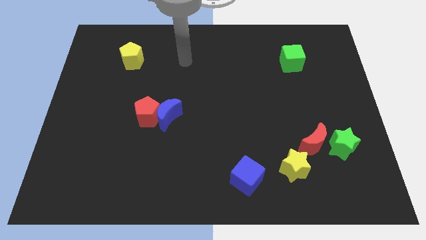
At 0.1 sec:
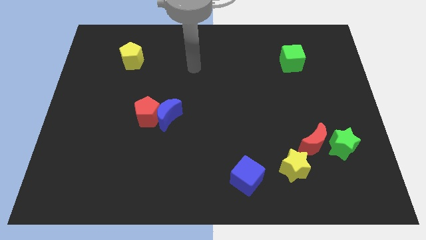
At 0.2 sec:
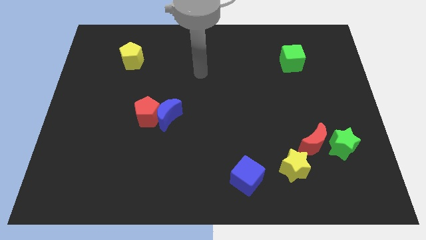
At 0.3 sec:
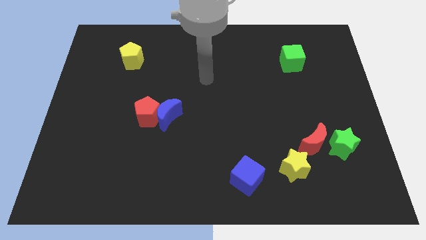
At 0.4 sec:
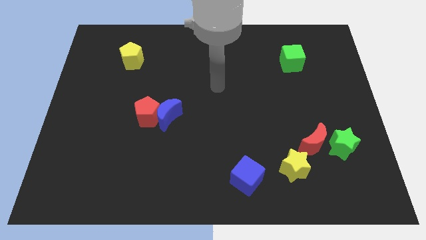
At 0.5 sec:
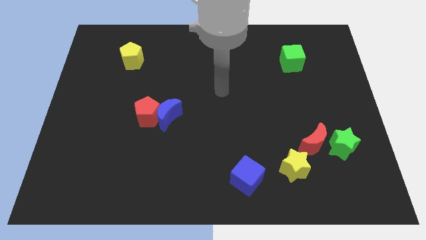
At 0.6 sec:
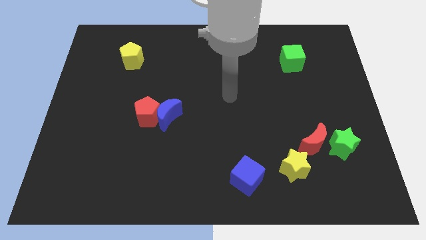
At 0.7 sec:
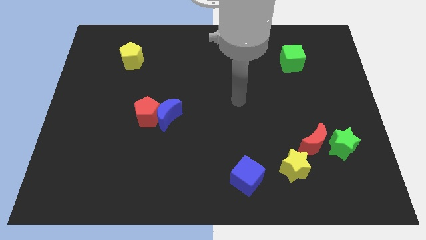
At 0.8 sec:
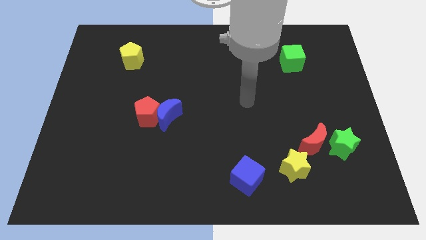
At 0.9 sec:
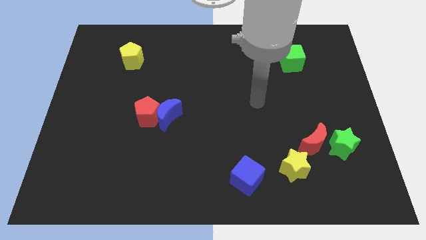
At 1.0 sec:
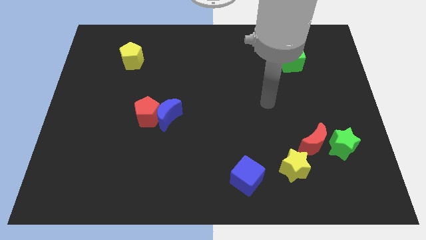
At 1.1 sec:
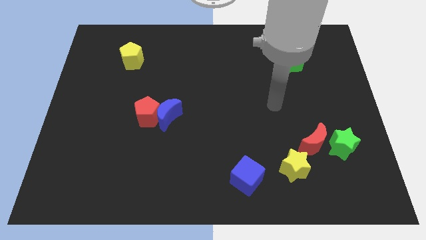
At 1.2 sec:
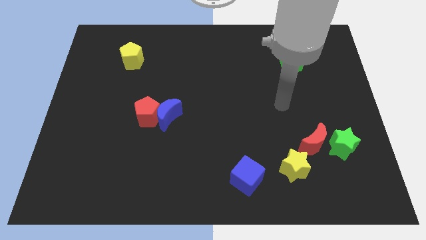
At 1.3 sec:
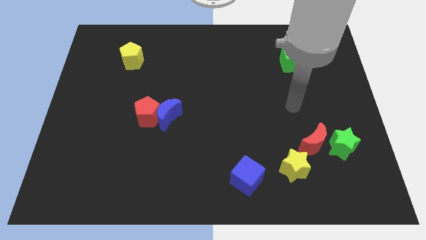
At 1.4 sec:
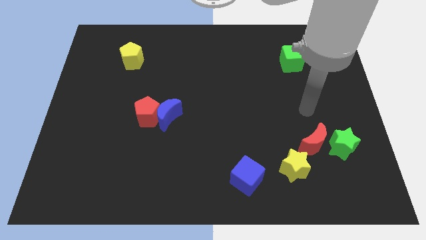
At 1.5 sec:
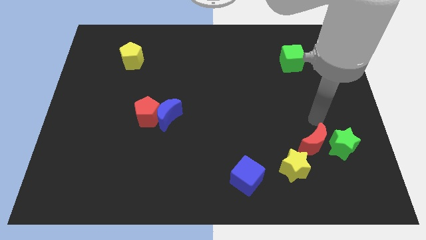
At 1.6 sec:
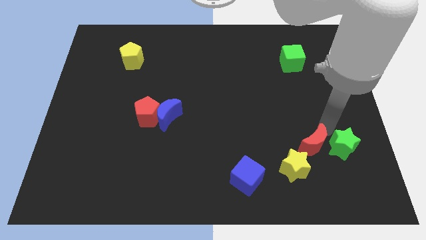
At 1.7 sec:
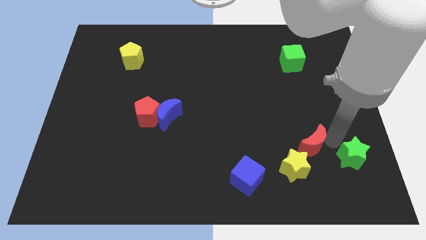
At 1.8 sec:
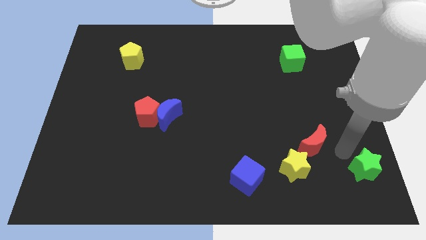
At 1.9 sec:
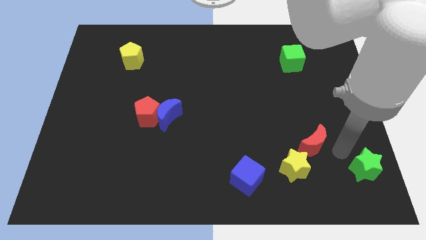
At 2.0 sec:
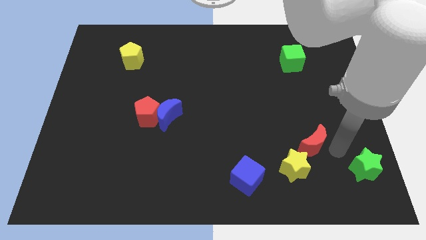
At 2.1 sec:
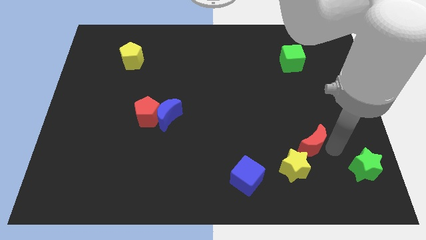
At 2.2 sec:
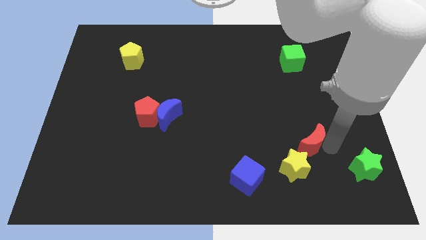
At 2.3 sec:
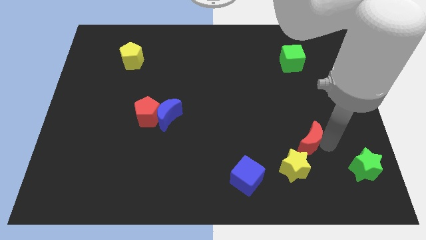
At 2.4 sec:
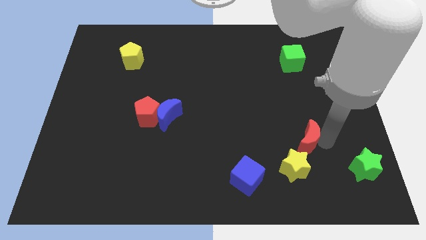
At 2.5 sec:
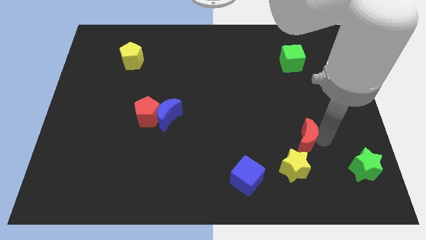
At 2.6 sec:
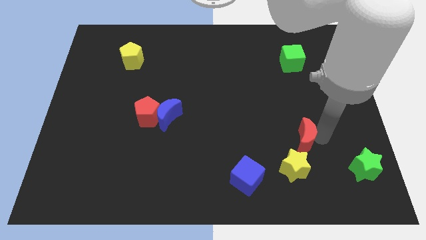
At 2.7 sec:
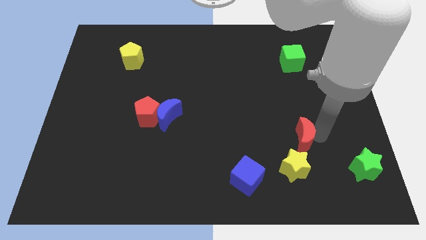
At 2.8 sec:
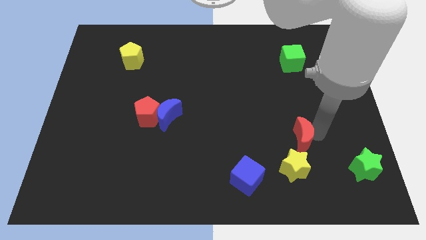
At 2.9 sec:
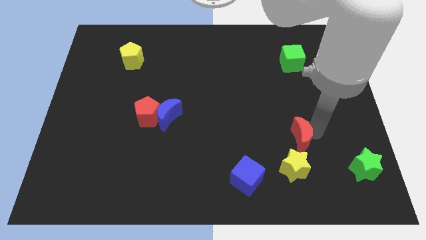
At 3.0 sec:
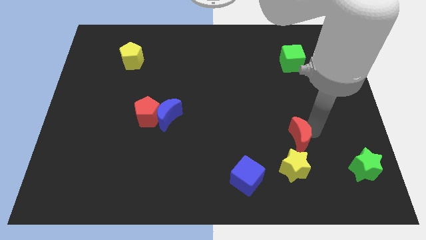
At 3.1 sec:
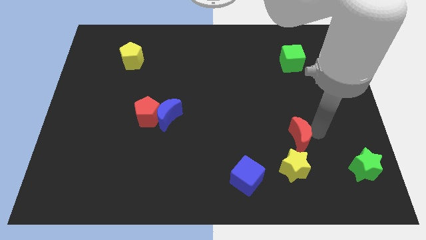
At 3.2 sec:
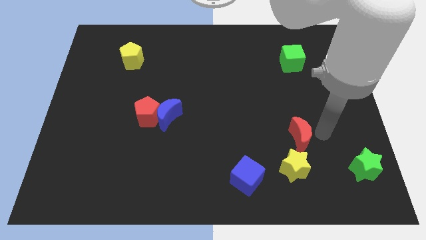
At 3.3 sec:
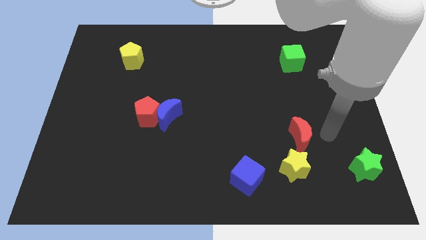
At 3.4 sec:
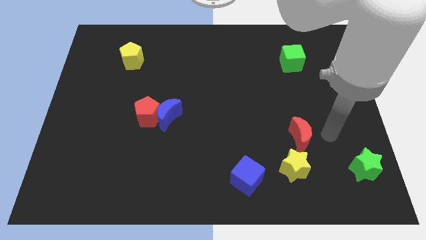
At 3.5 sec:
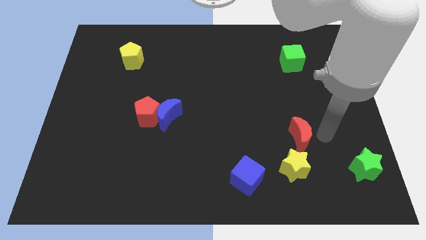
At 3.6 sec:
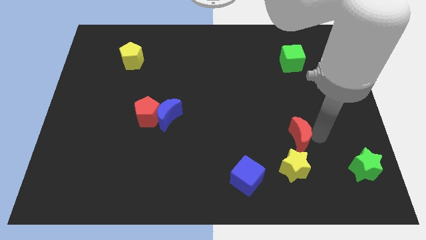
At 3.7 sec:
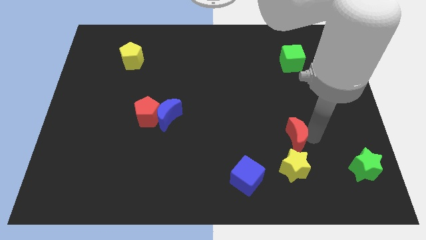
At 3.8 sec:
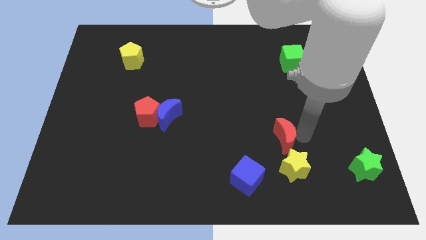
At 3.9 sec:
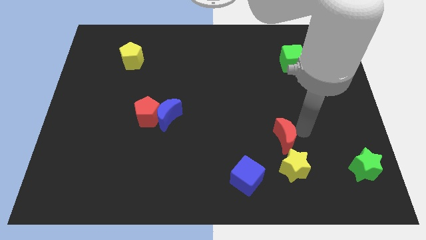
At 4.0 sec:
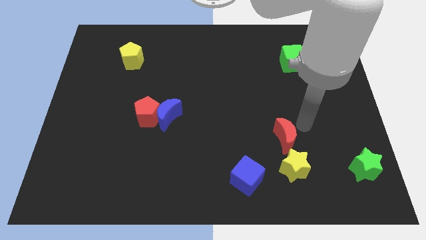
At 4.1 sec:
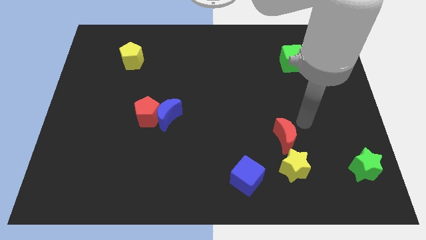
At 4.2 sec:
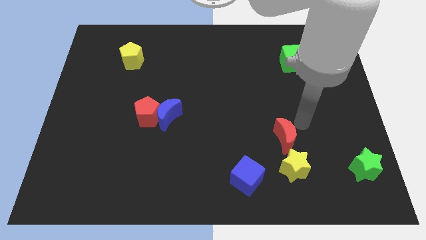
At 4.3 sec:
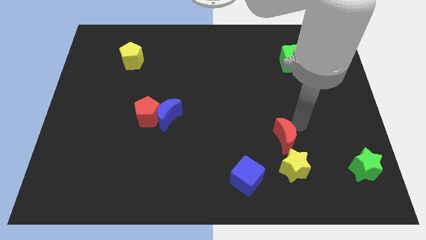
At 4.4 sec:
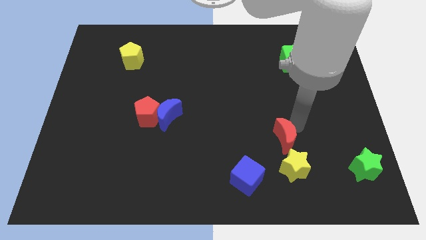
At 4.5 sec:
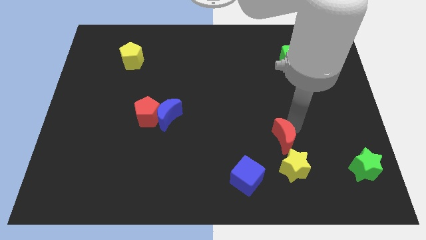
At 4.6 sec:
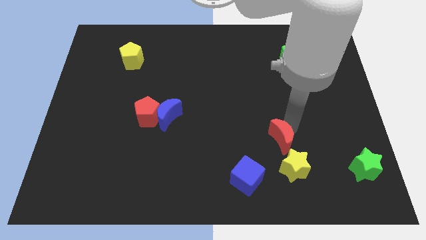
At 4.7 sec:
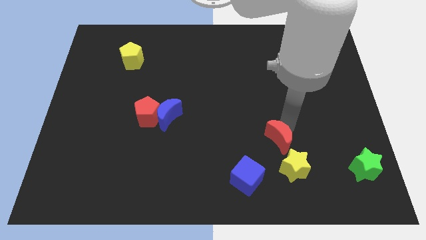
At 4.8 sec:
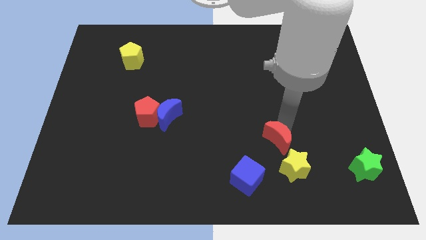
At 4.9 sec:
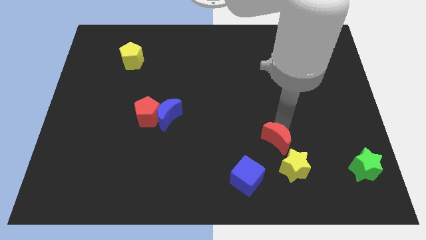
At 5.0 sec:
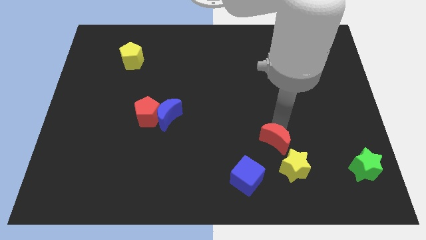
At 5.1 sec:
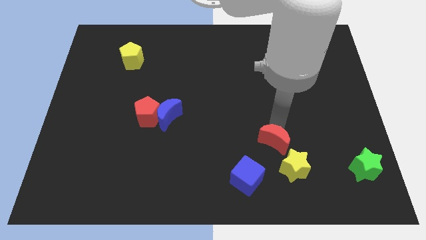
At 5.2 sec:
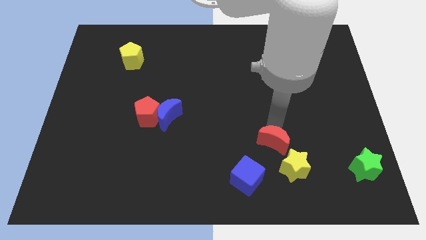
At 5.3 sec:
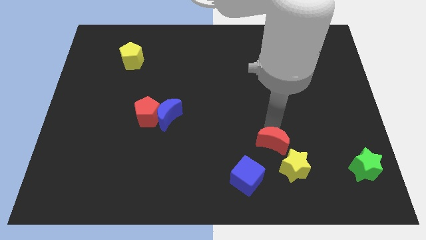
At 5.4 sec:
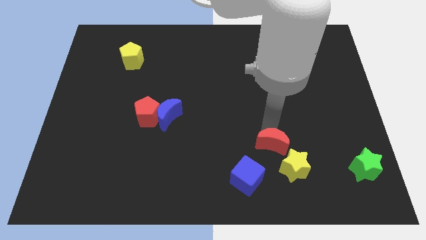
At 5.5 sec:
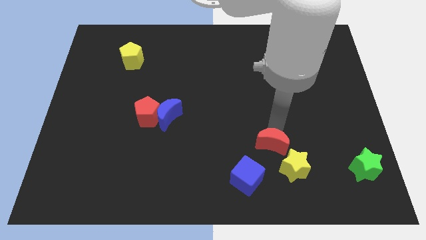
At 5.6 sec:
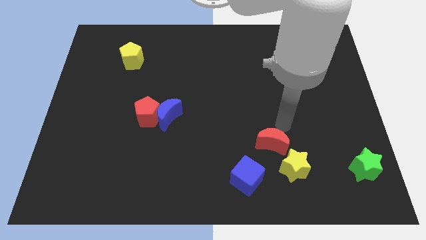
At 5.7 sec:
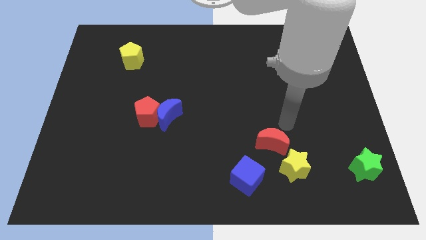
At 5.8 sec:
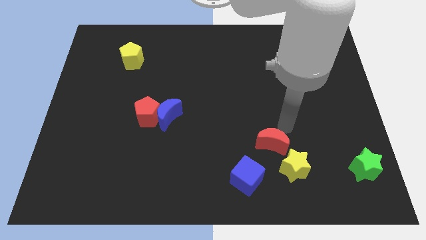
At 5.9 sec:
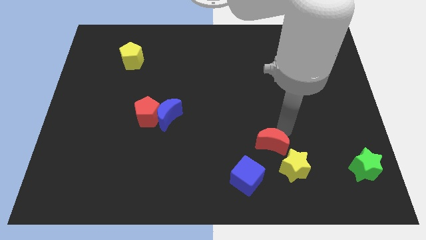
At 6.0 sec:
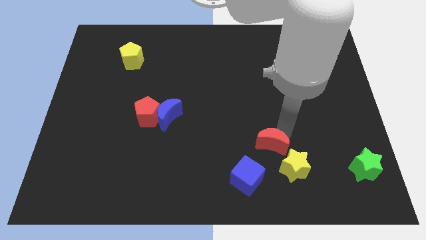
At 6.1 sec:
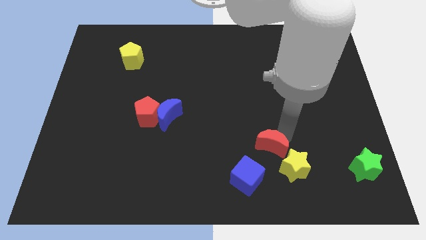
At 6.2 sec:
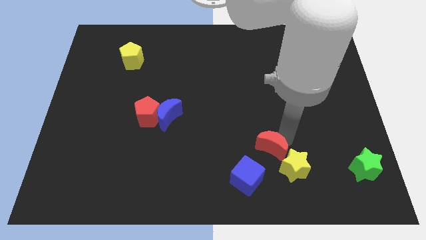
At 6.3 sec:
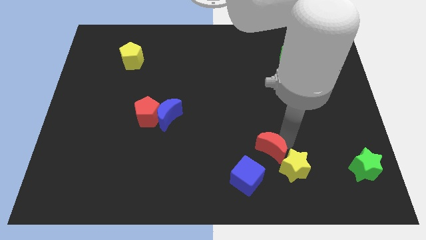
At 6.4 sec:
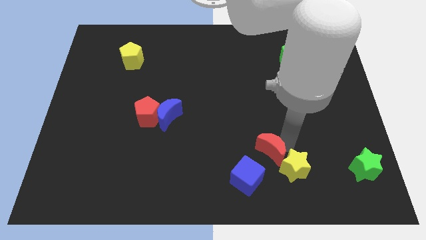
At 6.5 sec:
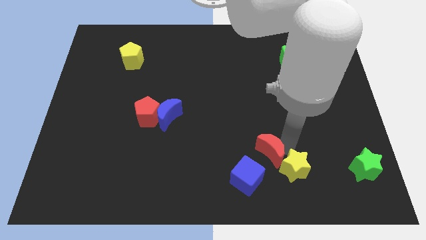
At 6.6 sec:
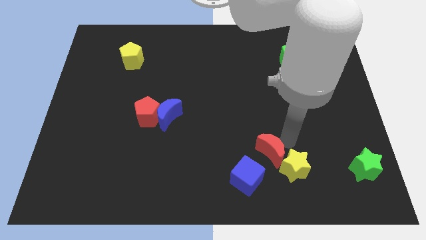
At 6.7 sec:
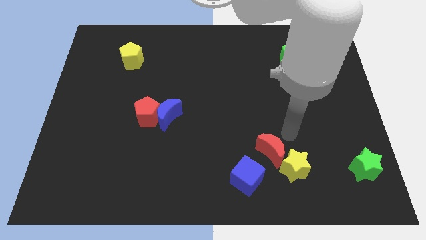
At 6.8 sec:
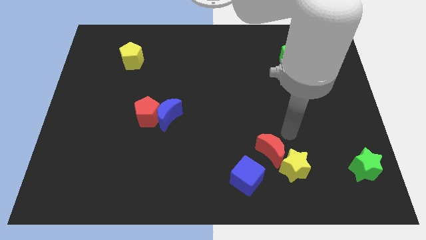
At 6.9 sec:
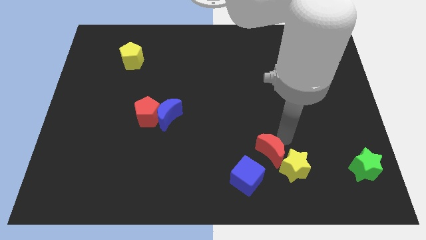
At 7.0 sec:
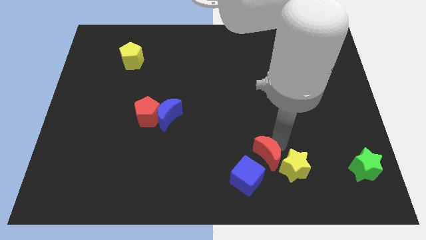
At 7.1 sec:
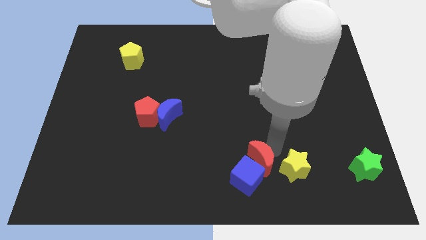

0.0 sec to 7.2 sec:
slide the red moon towards the blue cube
